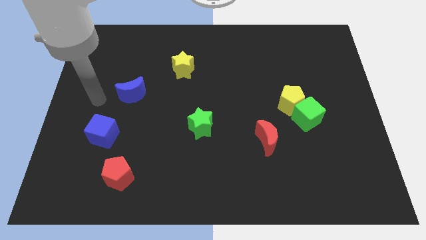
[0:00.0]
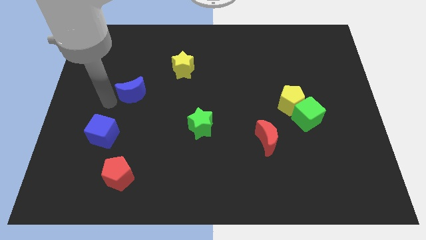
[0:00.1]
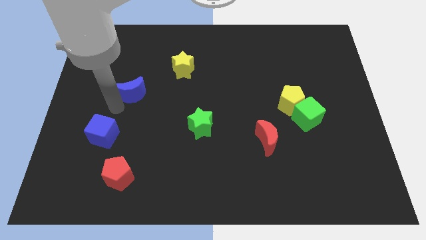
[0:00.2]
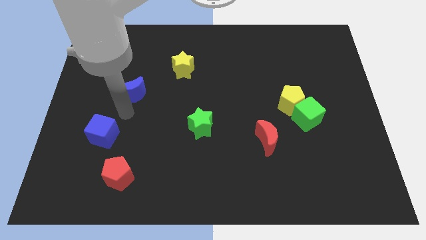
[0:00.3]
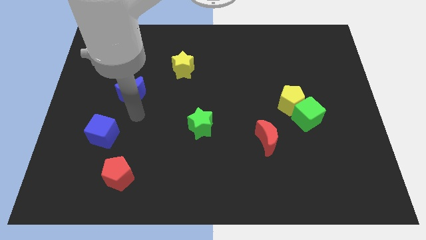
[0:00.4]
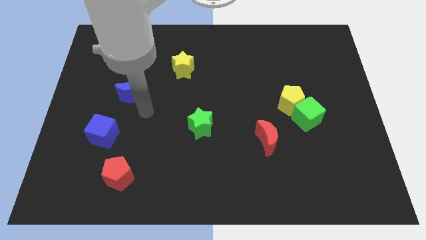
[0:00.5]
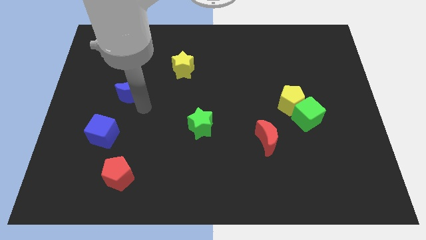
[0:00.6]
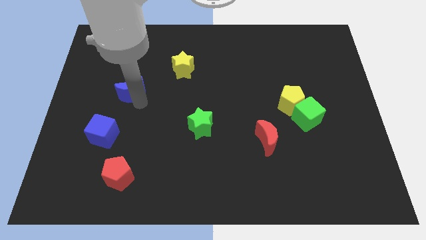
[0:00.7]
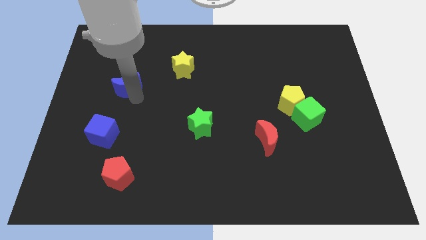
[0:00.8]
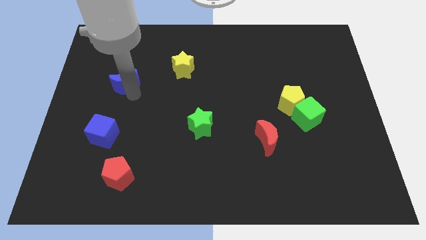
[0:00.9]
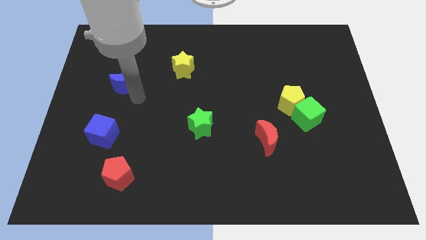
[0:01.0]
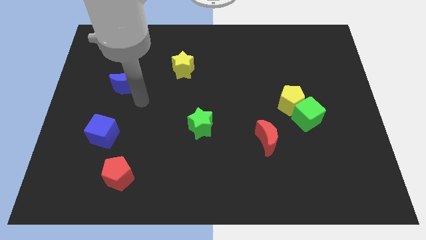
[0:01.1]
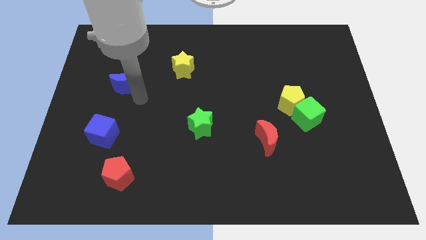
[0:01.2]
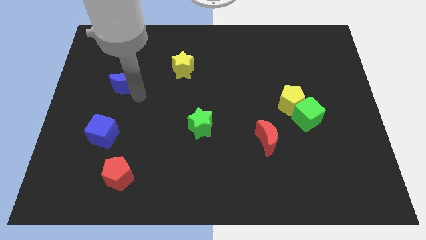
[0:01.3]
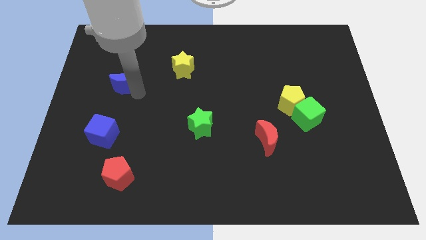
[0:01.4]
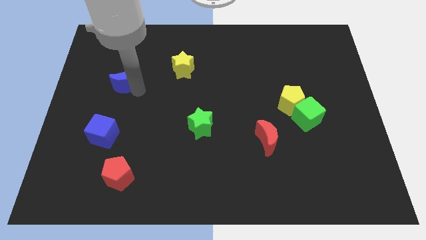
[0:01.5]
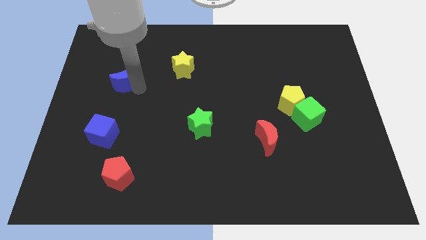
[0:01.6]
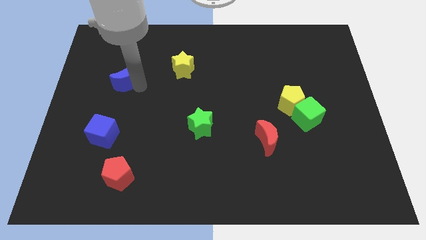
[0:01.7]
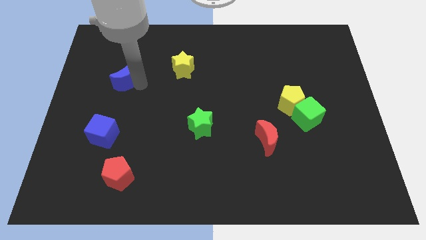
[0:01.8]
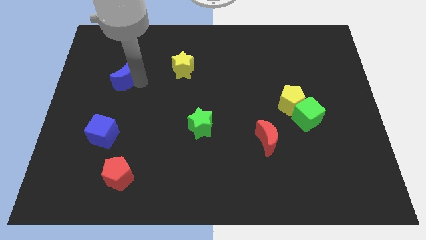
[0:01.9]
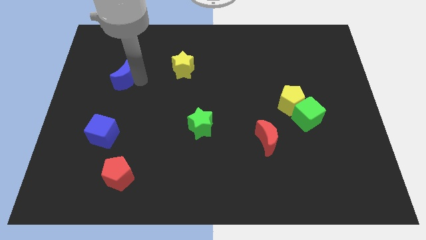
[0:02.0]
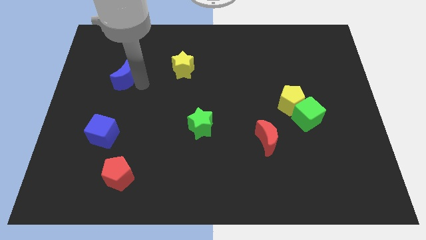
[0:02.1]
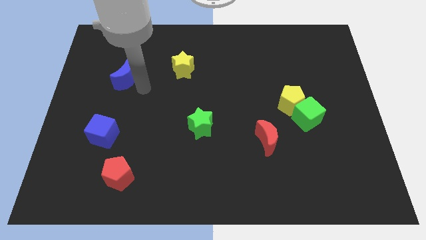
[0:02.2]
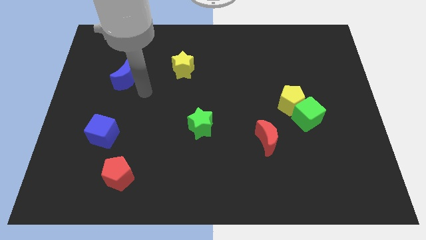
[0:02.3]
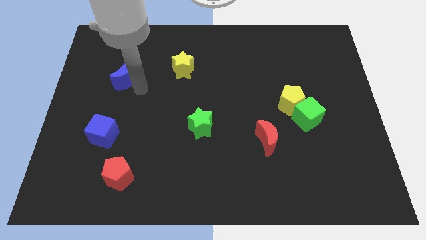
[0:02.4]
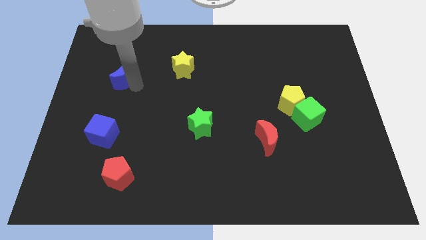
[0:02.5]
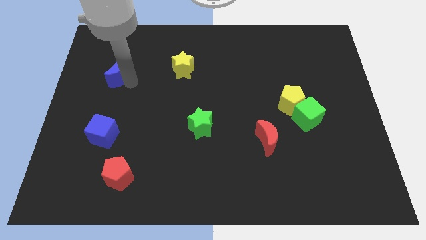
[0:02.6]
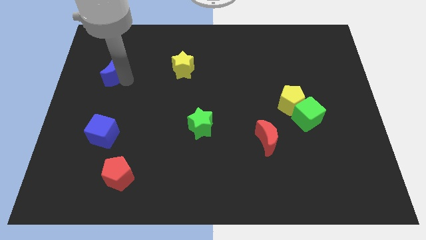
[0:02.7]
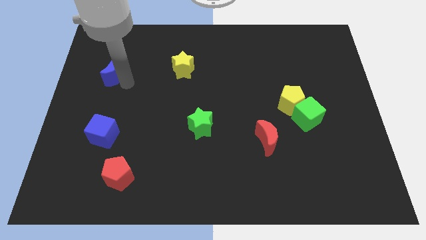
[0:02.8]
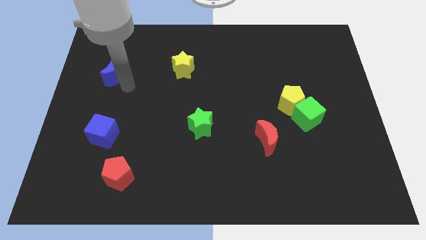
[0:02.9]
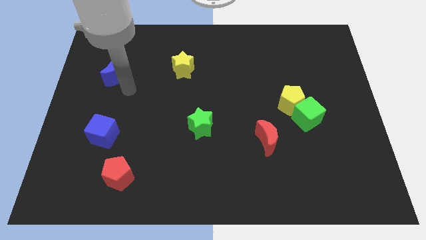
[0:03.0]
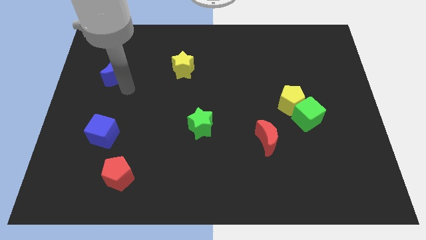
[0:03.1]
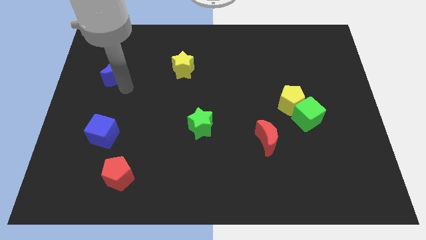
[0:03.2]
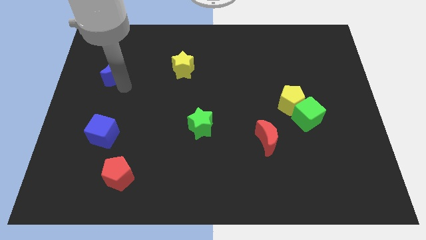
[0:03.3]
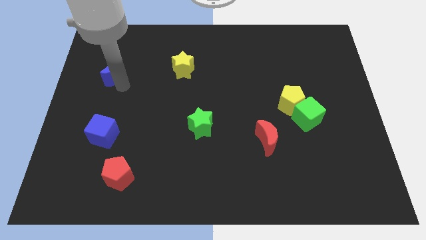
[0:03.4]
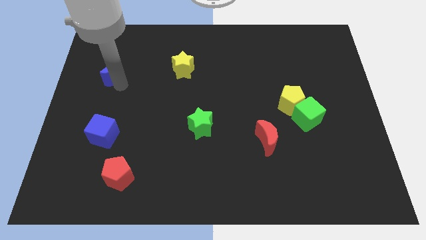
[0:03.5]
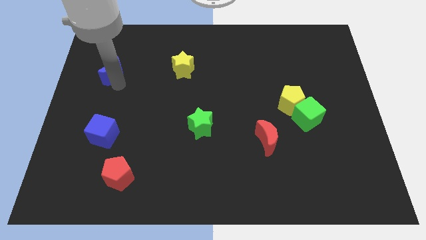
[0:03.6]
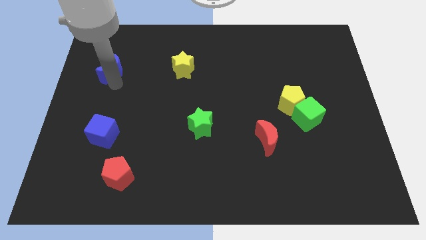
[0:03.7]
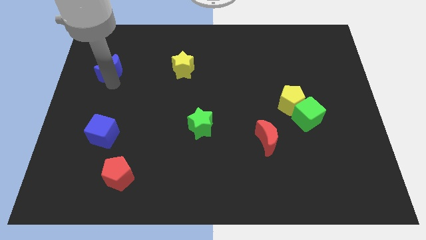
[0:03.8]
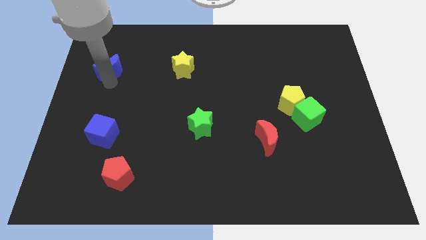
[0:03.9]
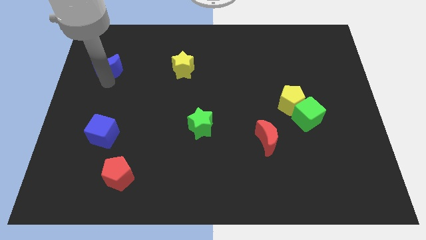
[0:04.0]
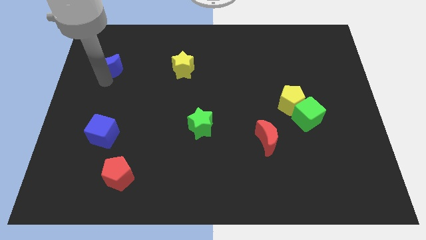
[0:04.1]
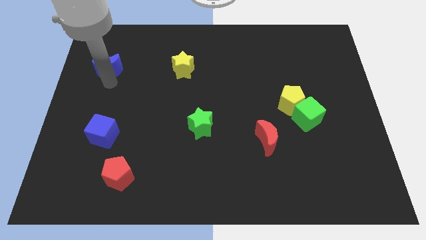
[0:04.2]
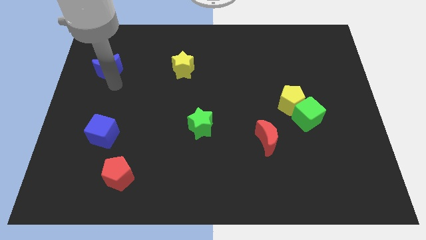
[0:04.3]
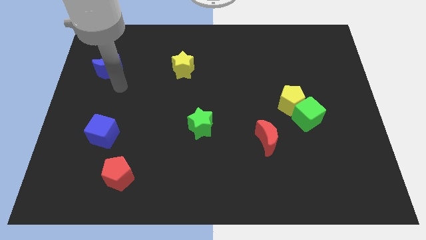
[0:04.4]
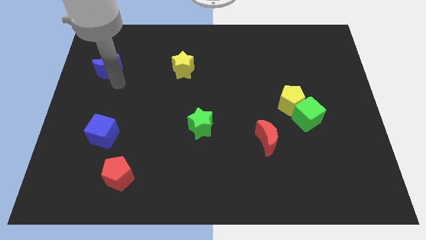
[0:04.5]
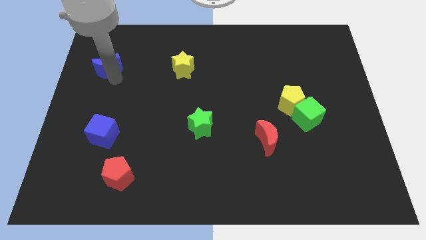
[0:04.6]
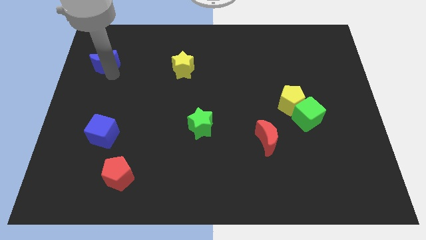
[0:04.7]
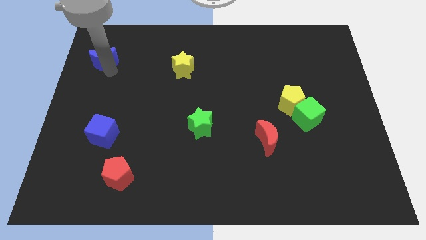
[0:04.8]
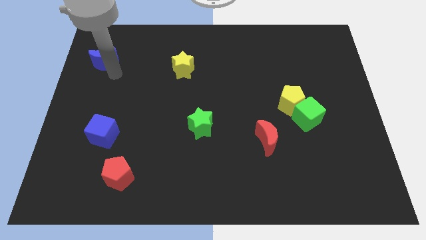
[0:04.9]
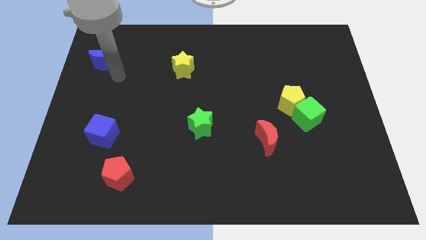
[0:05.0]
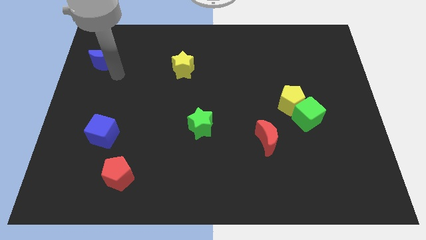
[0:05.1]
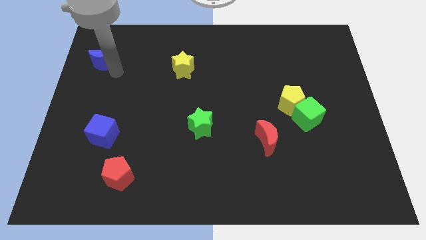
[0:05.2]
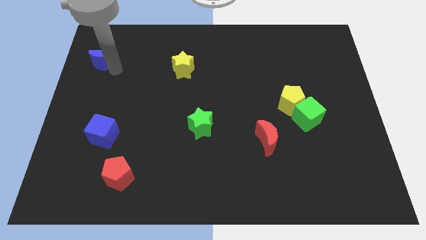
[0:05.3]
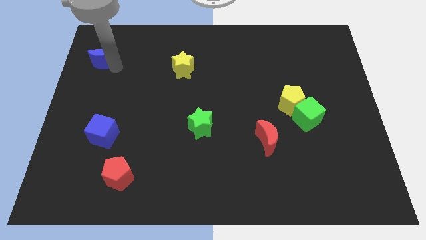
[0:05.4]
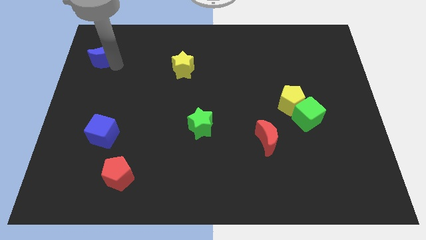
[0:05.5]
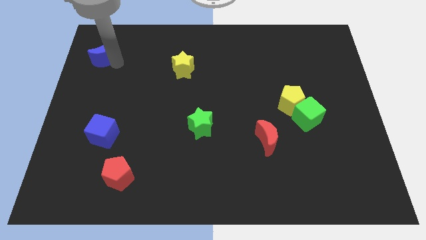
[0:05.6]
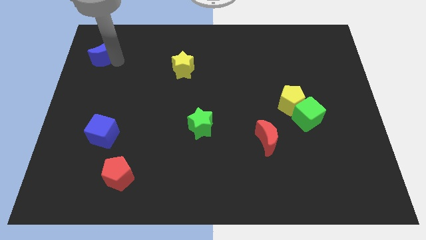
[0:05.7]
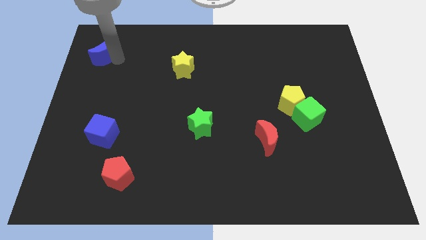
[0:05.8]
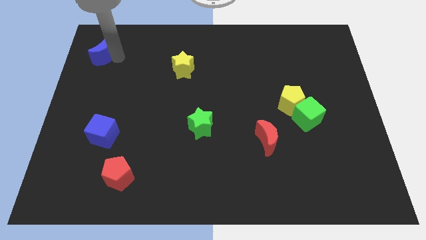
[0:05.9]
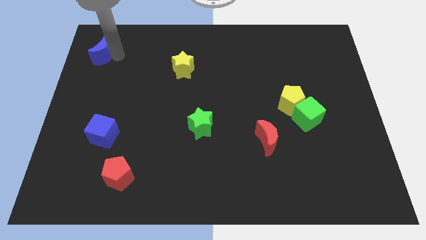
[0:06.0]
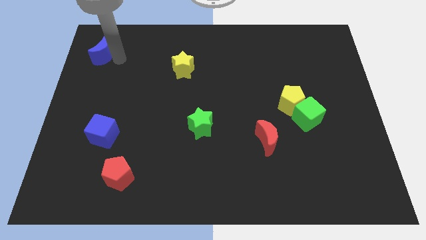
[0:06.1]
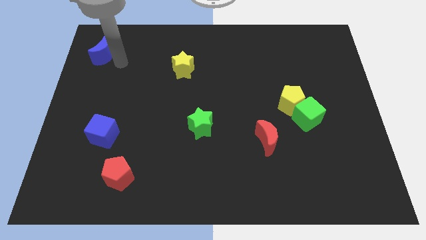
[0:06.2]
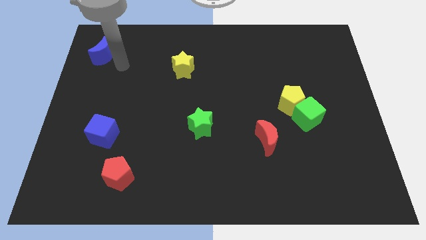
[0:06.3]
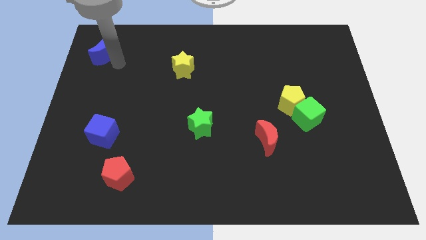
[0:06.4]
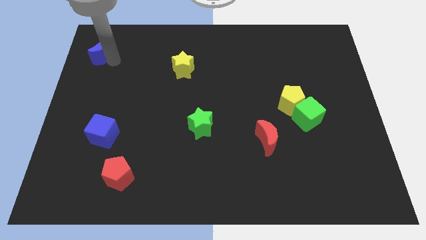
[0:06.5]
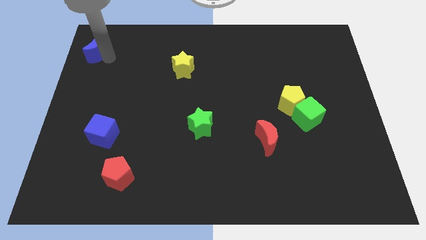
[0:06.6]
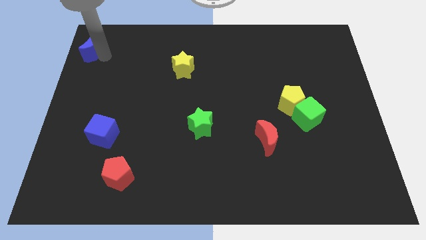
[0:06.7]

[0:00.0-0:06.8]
push the blue moon to the top left of the board
